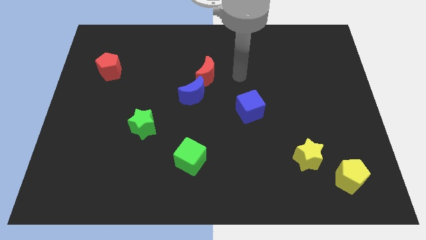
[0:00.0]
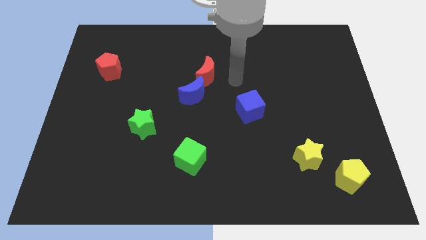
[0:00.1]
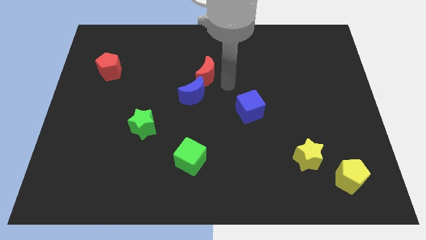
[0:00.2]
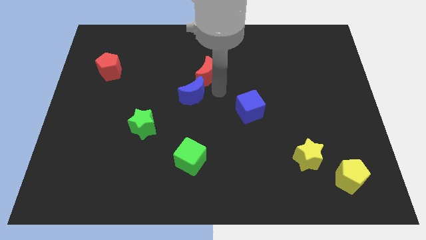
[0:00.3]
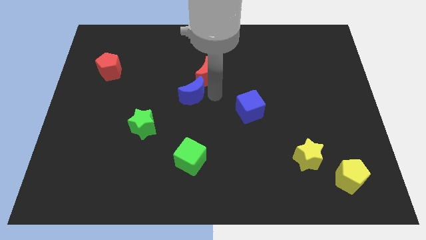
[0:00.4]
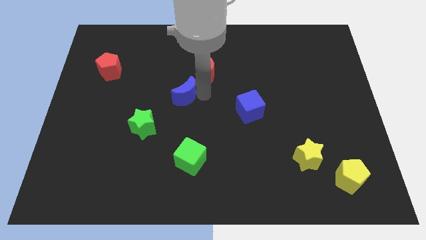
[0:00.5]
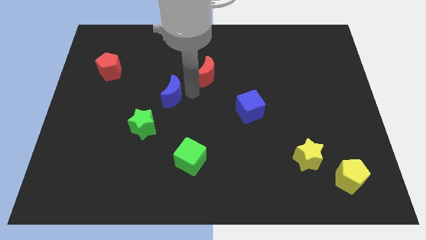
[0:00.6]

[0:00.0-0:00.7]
move the red moon away from the blue moon

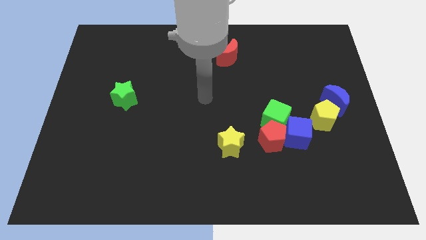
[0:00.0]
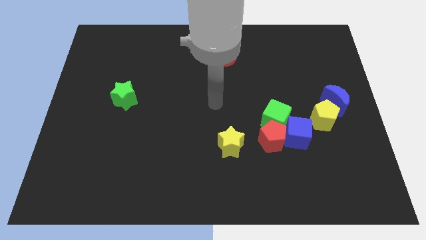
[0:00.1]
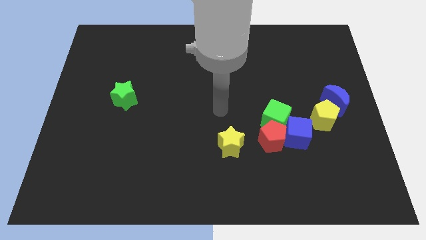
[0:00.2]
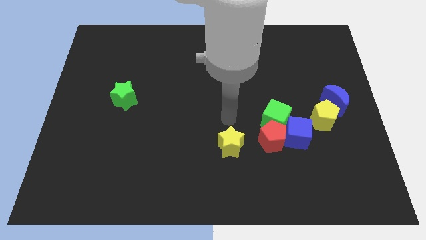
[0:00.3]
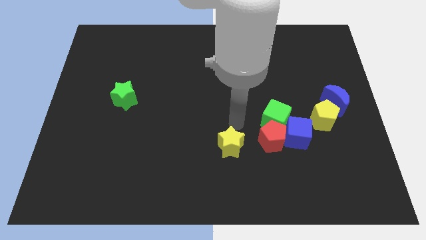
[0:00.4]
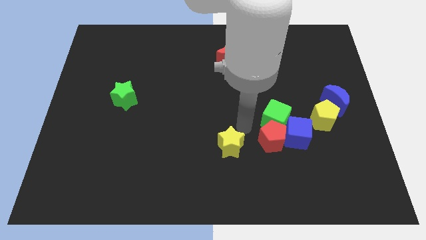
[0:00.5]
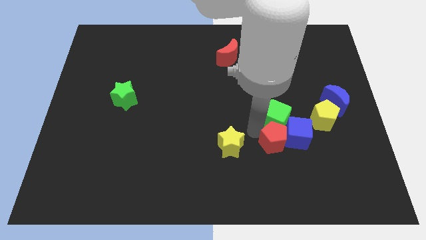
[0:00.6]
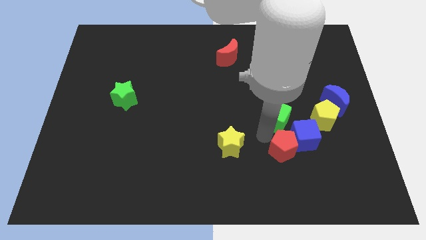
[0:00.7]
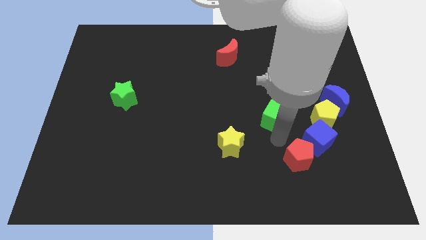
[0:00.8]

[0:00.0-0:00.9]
separate the green cube from the red pentagon and blue cube

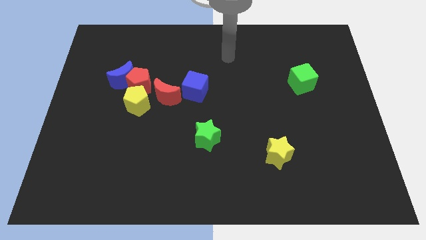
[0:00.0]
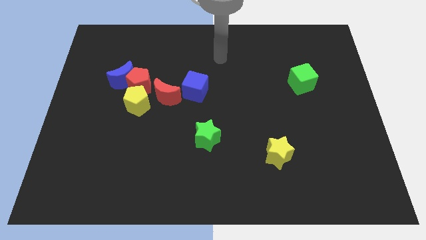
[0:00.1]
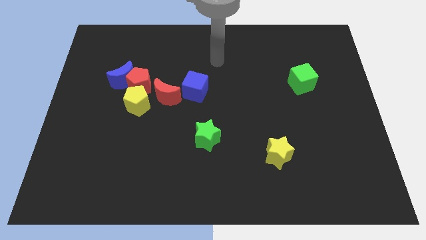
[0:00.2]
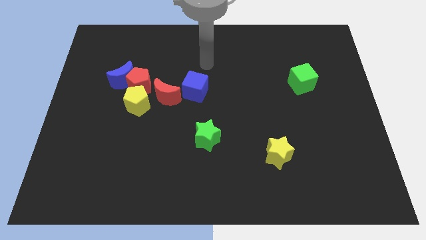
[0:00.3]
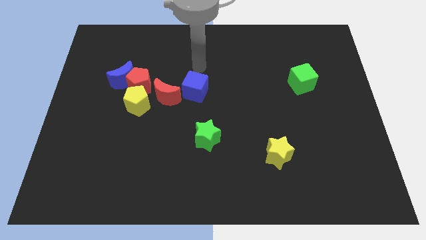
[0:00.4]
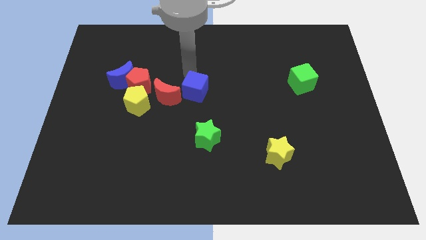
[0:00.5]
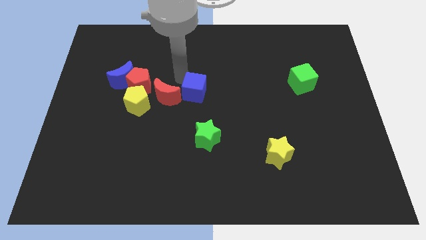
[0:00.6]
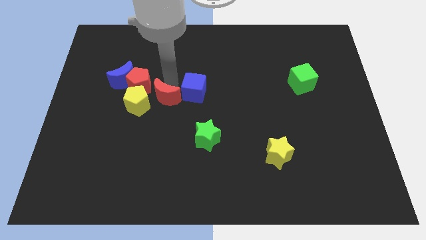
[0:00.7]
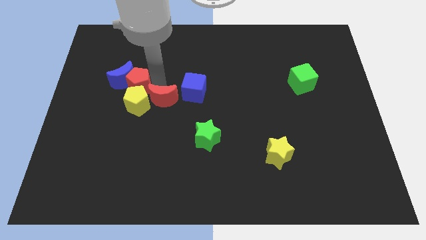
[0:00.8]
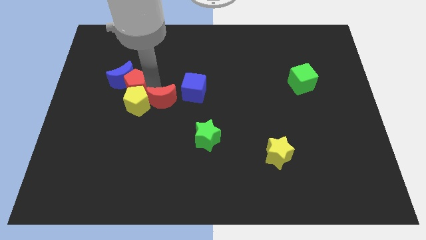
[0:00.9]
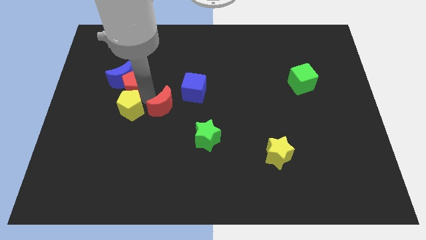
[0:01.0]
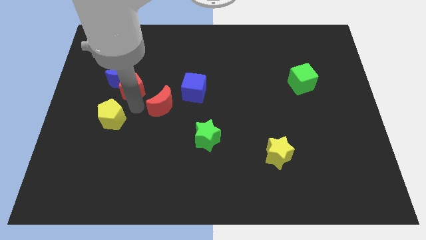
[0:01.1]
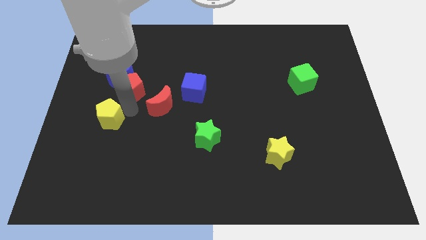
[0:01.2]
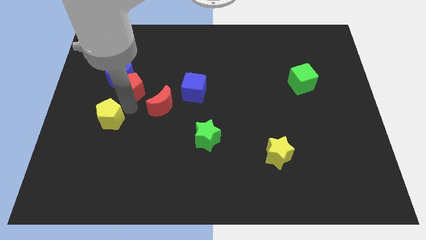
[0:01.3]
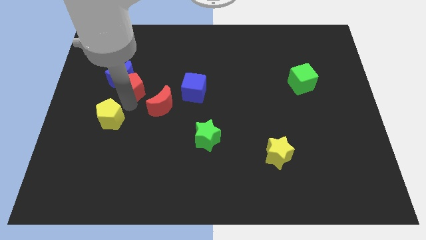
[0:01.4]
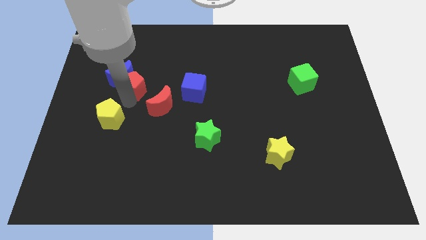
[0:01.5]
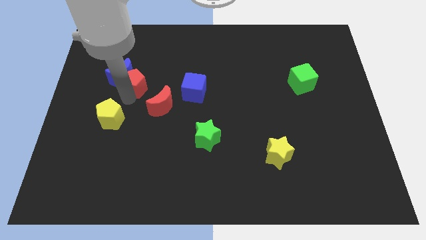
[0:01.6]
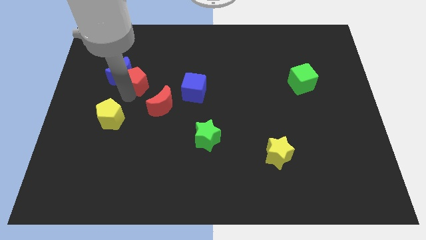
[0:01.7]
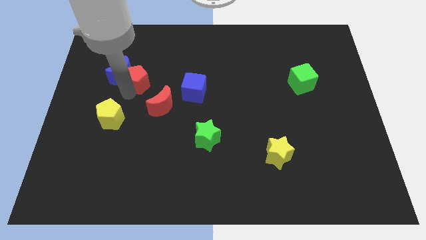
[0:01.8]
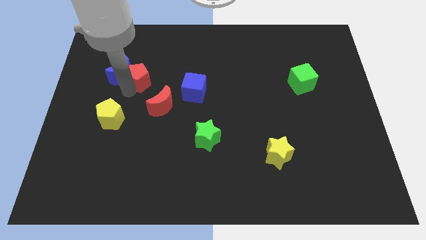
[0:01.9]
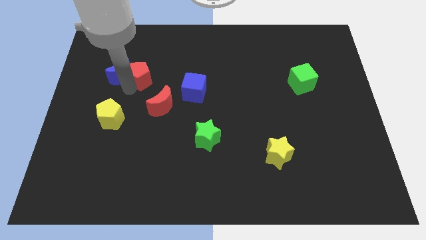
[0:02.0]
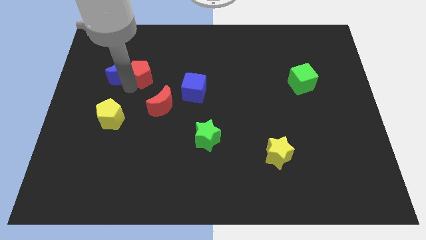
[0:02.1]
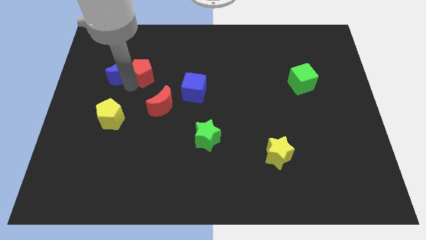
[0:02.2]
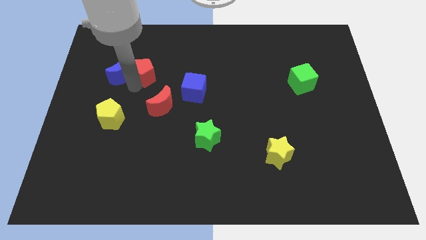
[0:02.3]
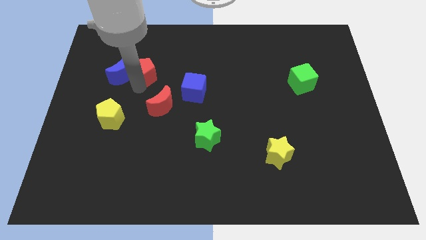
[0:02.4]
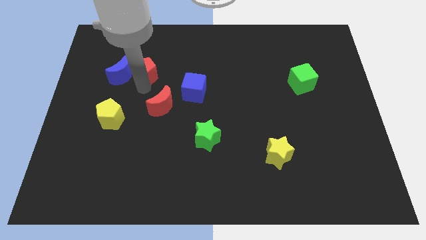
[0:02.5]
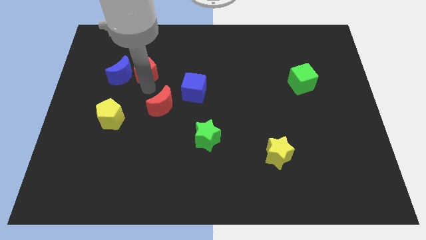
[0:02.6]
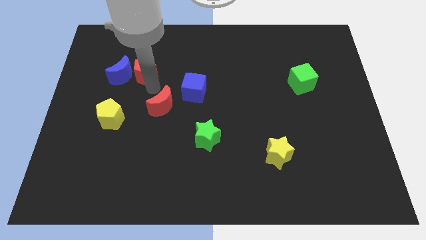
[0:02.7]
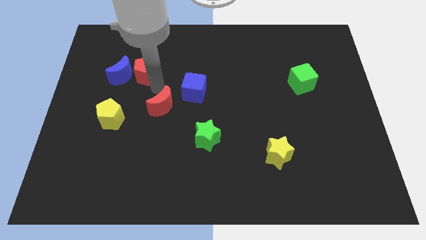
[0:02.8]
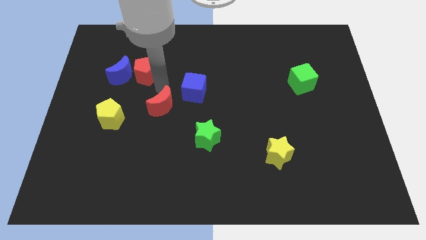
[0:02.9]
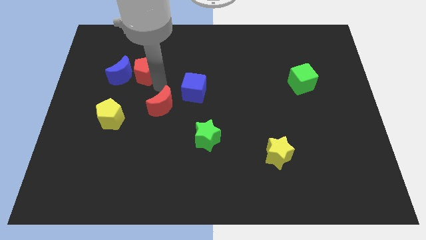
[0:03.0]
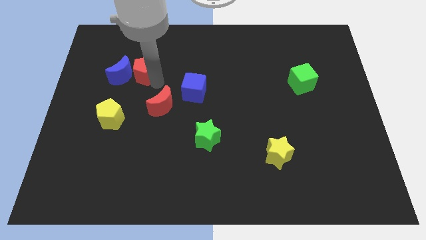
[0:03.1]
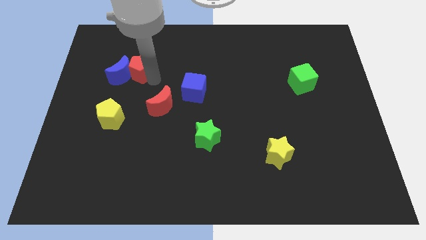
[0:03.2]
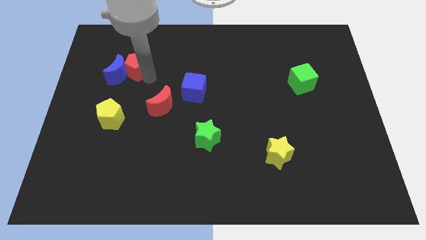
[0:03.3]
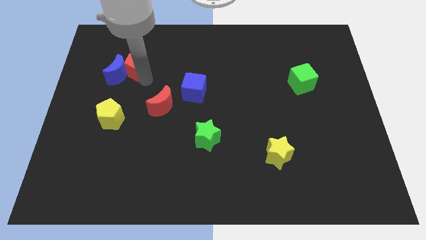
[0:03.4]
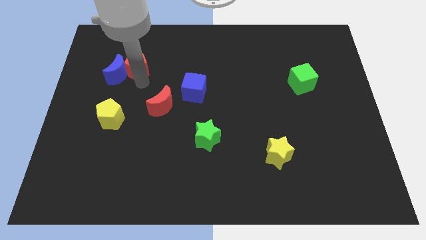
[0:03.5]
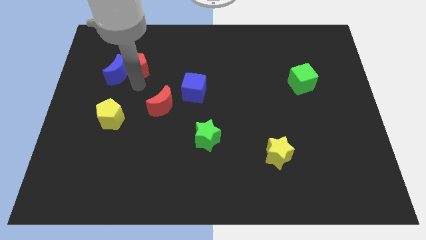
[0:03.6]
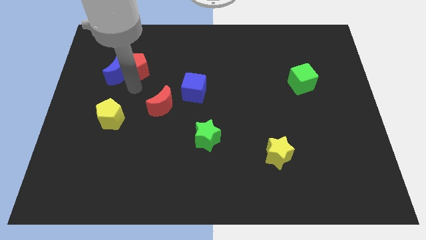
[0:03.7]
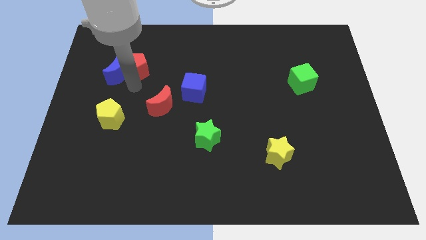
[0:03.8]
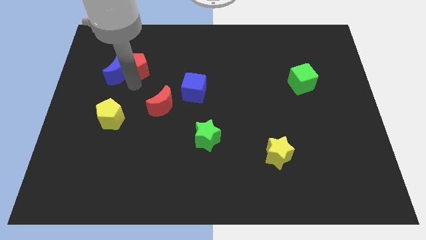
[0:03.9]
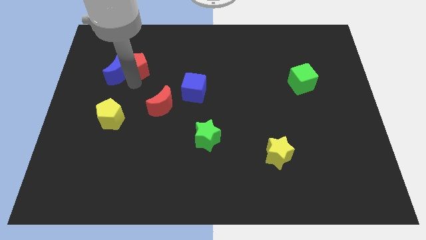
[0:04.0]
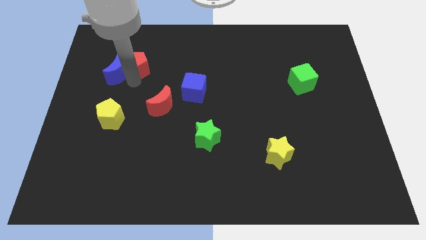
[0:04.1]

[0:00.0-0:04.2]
move the red pentagon away from the clump

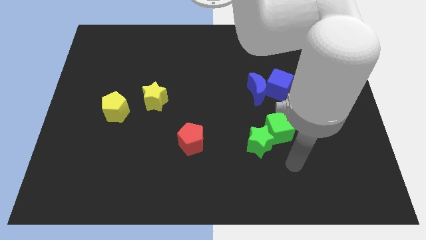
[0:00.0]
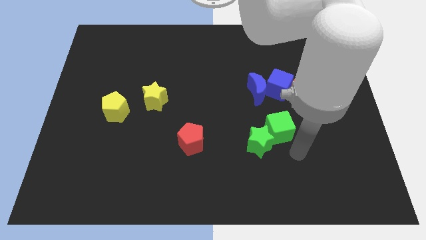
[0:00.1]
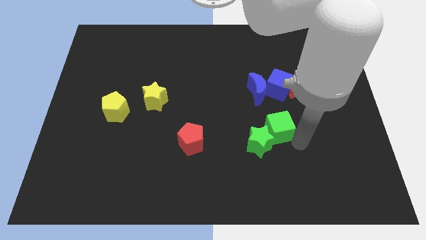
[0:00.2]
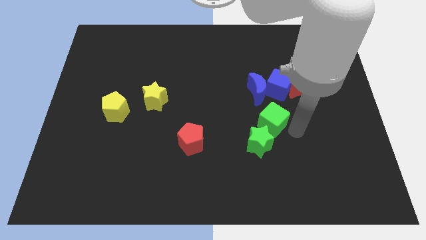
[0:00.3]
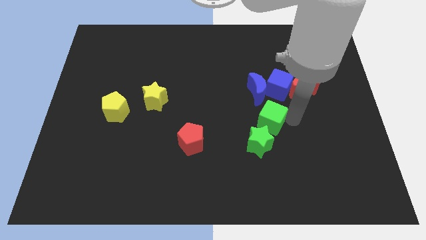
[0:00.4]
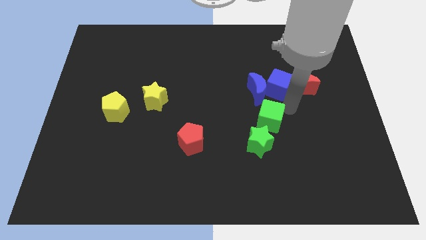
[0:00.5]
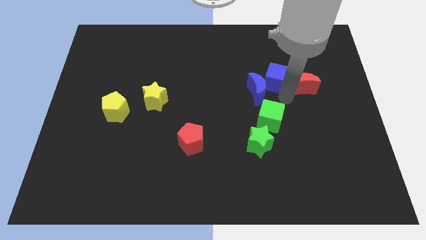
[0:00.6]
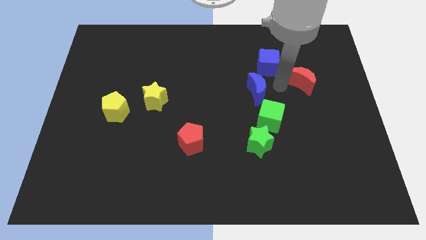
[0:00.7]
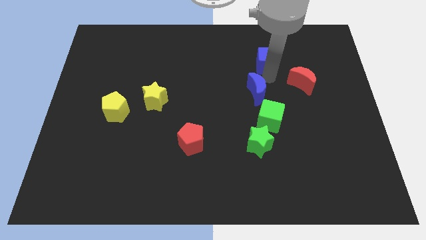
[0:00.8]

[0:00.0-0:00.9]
move the blue moon away from the blue cube

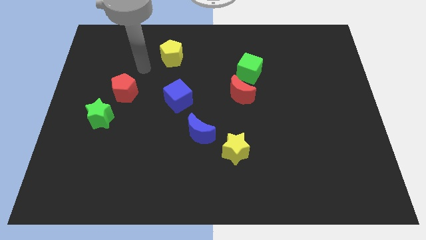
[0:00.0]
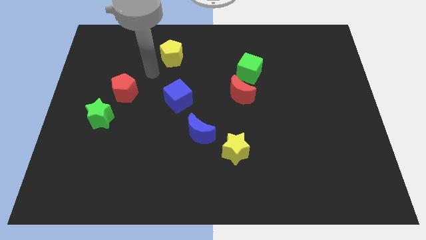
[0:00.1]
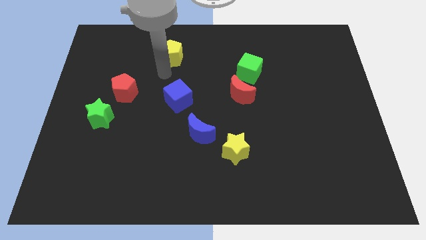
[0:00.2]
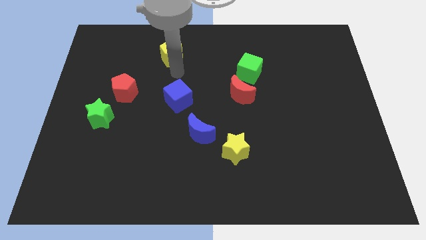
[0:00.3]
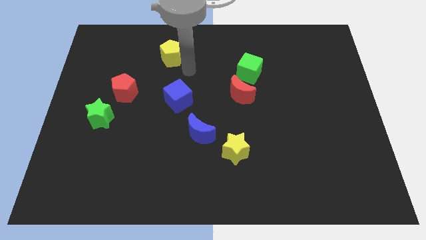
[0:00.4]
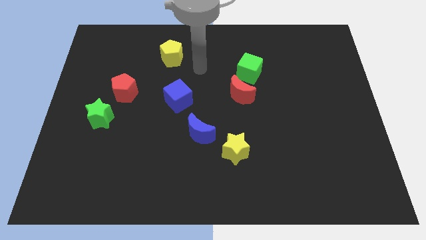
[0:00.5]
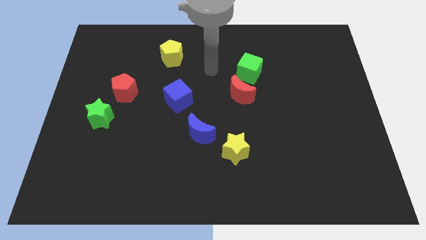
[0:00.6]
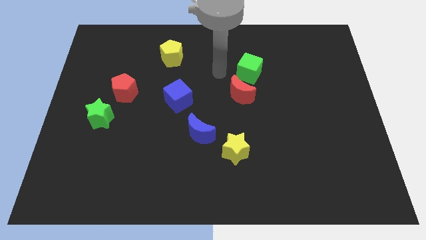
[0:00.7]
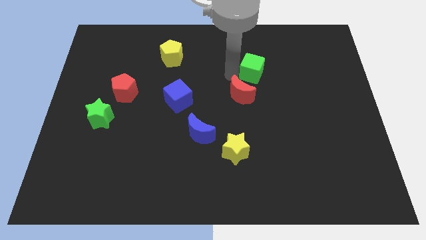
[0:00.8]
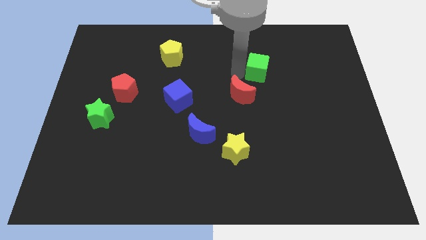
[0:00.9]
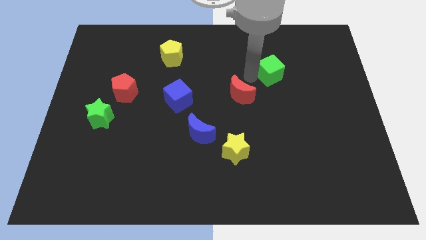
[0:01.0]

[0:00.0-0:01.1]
separate the red moon from the green cube

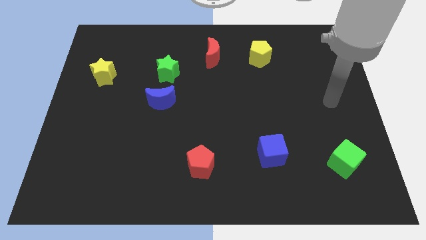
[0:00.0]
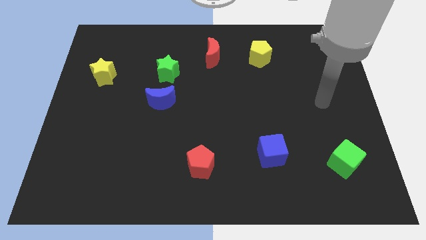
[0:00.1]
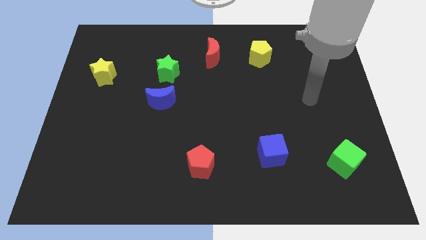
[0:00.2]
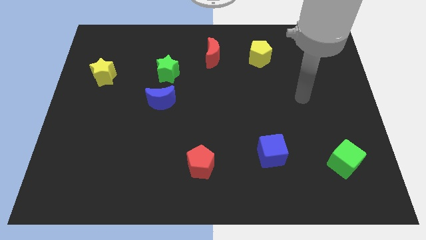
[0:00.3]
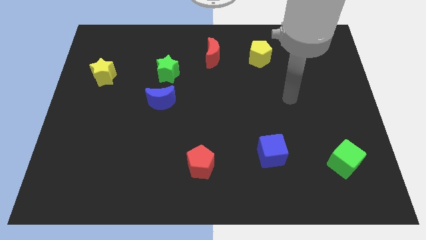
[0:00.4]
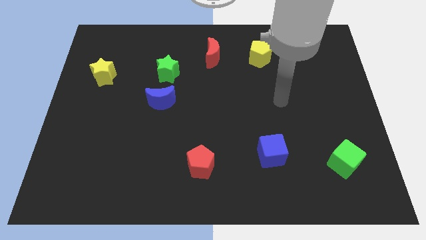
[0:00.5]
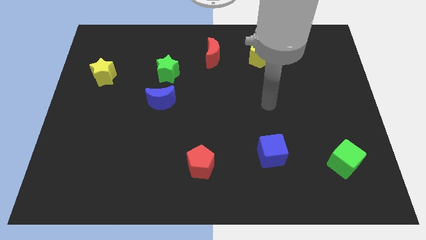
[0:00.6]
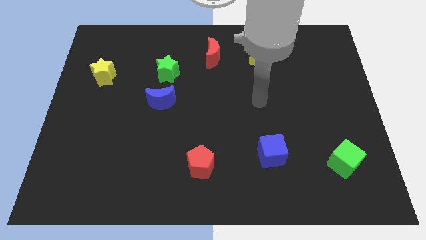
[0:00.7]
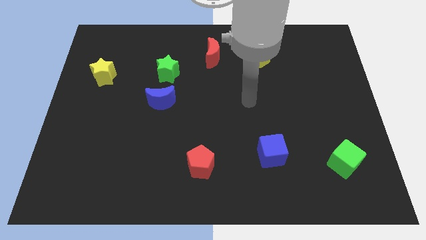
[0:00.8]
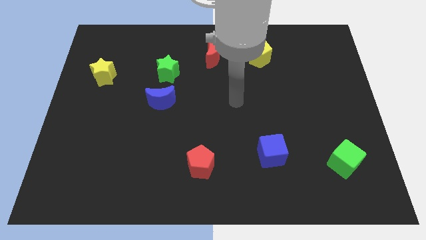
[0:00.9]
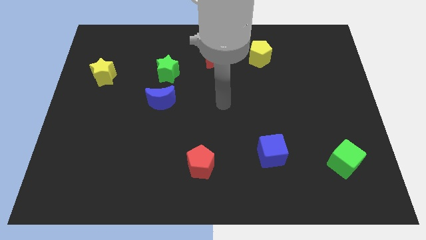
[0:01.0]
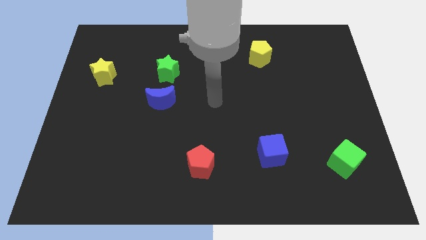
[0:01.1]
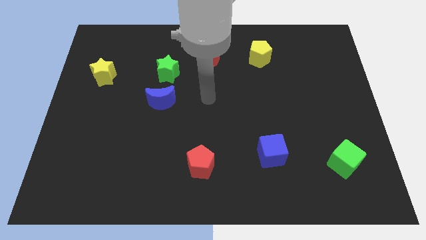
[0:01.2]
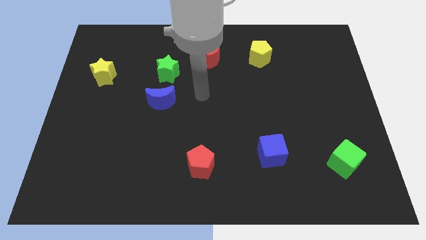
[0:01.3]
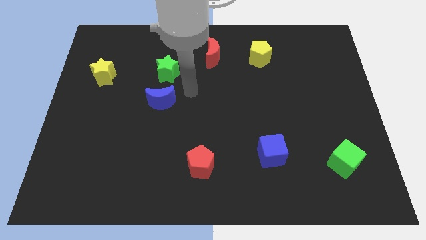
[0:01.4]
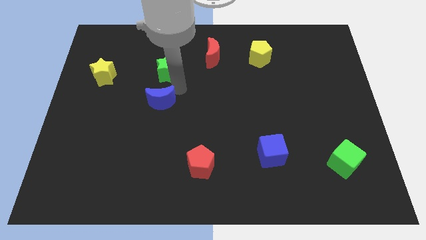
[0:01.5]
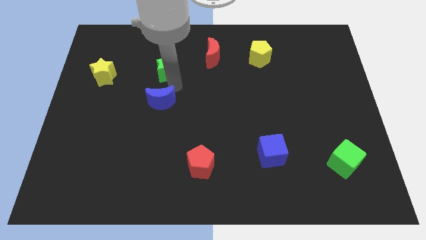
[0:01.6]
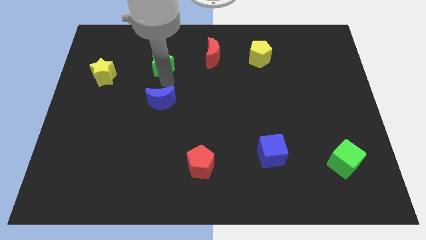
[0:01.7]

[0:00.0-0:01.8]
pull the blue moon apart from the green star
